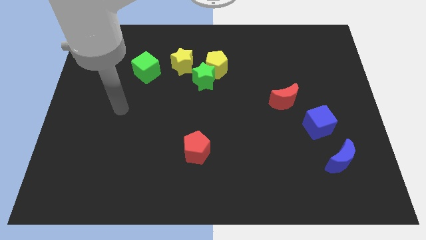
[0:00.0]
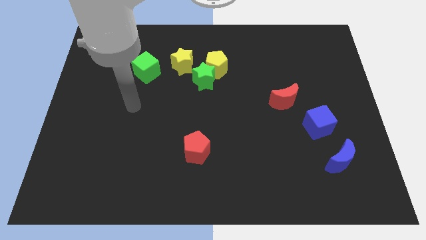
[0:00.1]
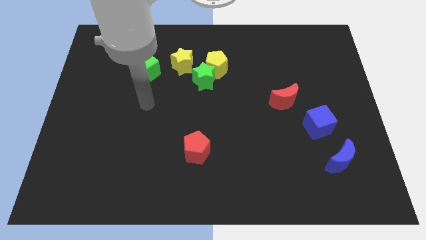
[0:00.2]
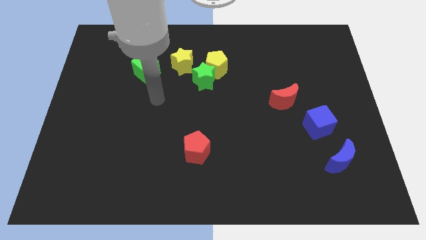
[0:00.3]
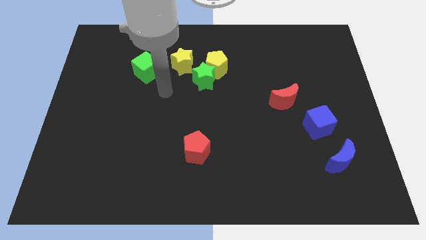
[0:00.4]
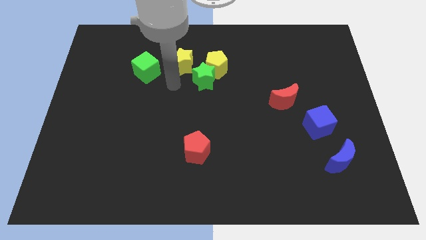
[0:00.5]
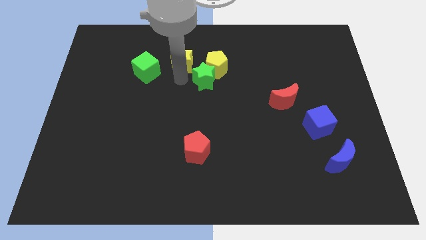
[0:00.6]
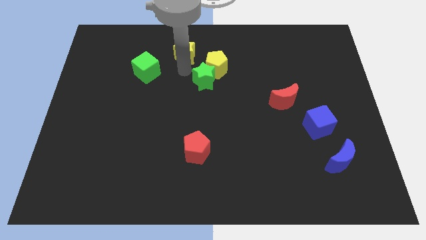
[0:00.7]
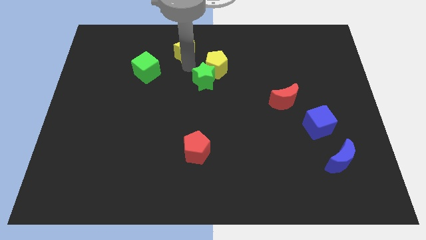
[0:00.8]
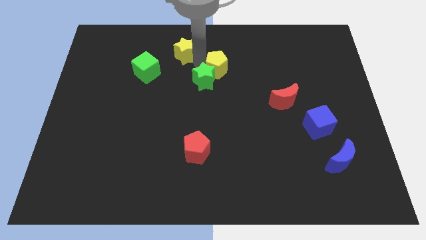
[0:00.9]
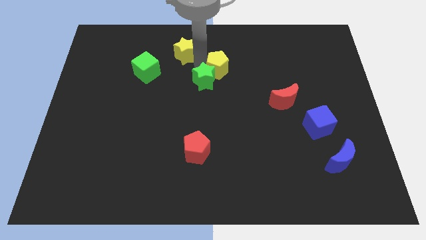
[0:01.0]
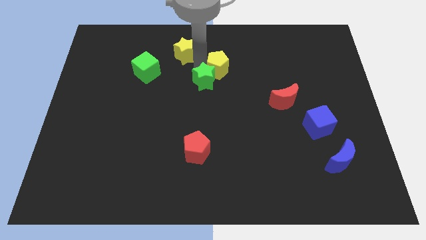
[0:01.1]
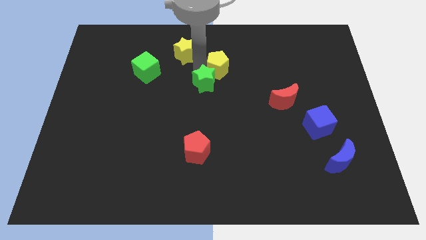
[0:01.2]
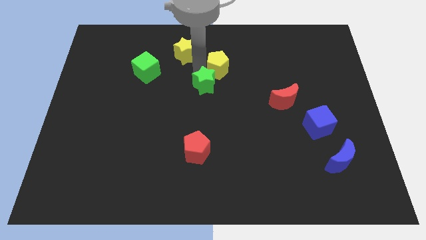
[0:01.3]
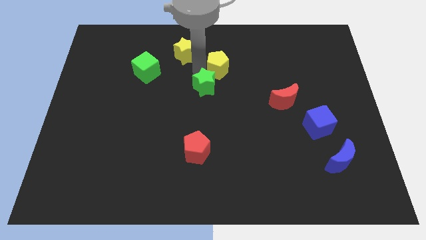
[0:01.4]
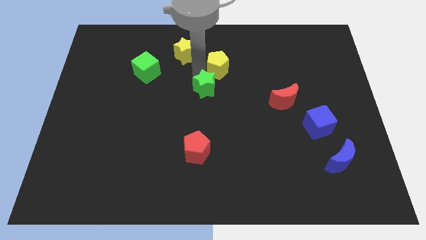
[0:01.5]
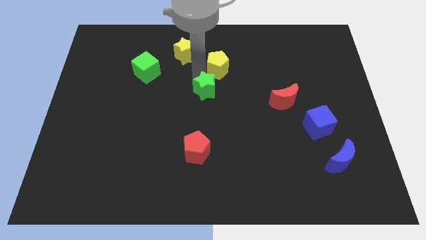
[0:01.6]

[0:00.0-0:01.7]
pull the green star apart from the yellow pentagon and yellow star

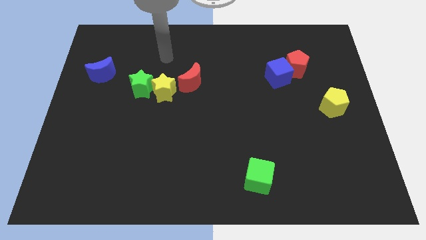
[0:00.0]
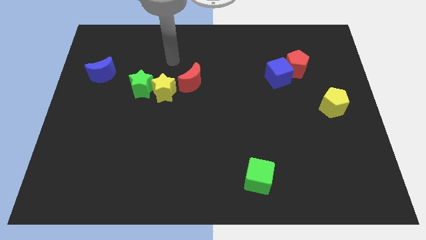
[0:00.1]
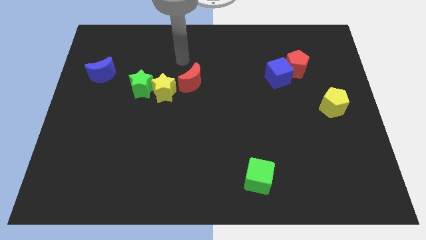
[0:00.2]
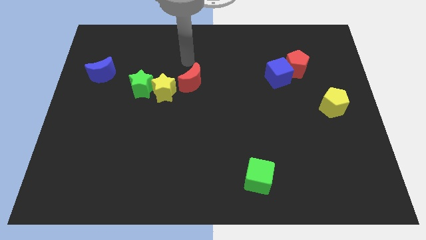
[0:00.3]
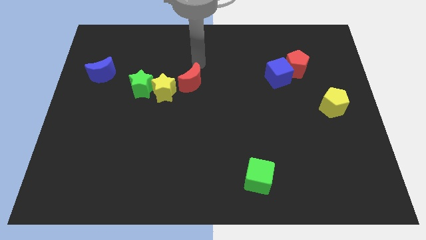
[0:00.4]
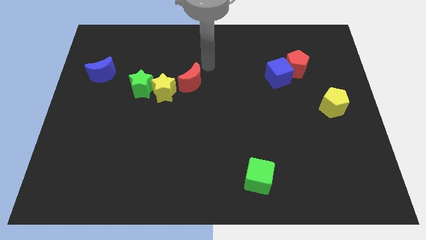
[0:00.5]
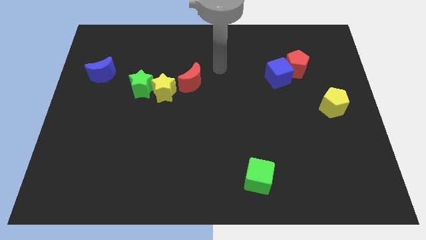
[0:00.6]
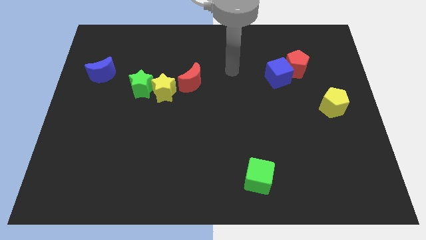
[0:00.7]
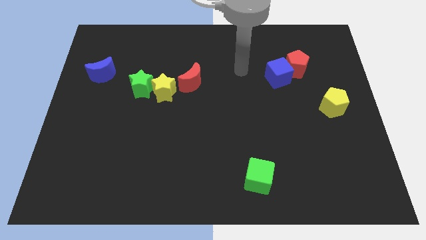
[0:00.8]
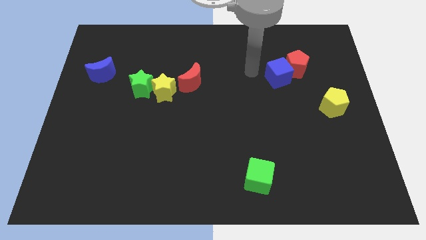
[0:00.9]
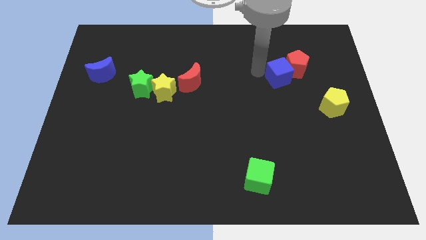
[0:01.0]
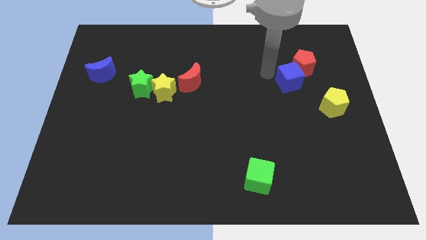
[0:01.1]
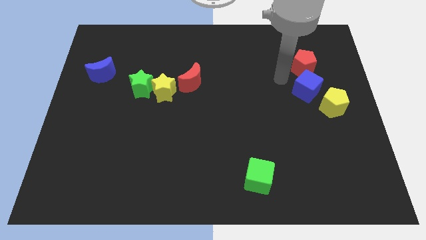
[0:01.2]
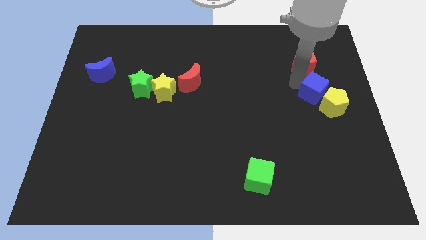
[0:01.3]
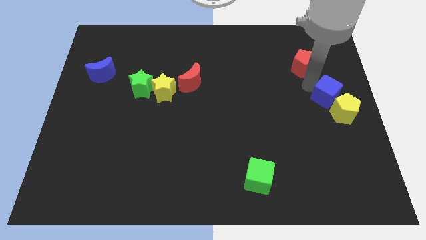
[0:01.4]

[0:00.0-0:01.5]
separate the red pentagon from the blue cube

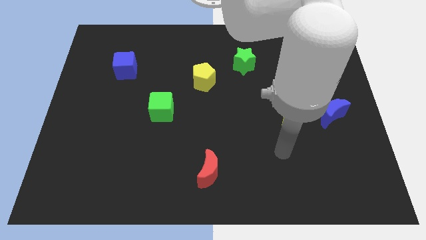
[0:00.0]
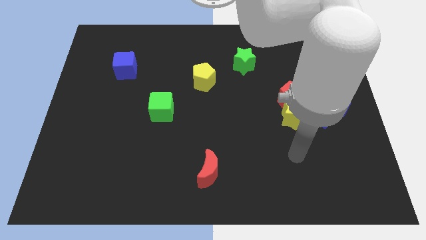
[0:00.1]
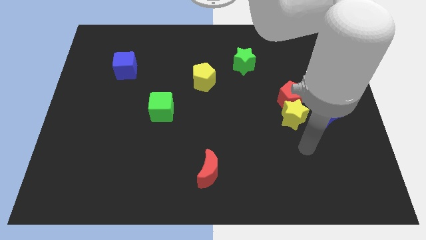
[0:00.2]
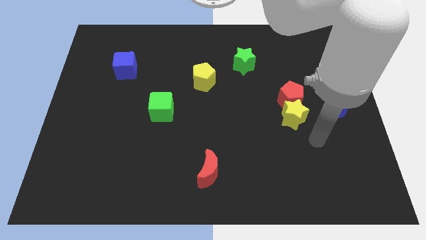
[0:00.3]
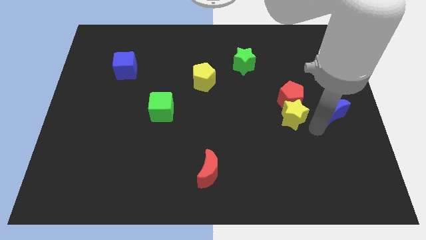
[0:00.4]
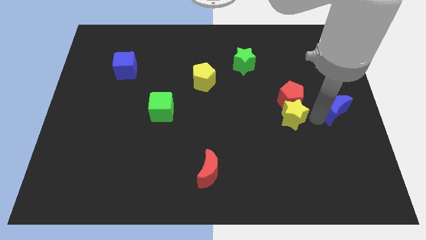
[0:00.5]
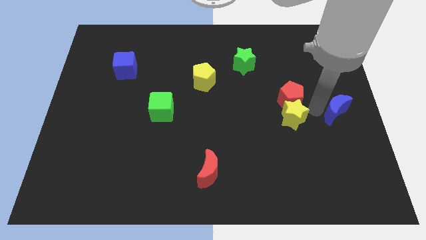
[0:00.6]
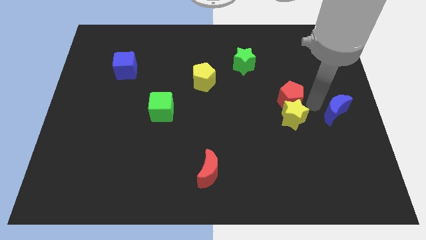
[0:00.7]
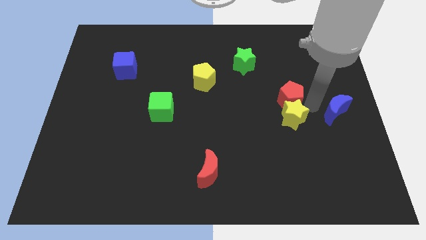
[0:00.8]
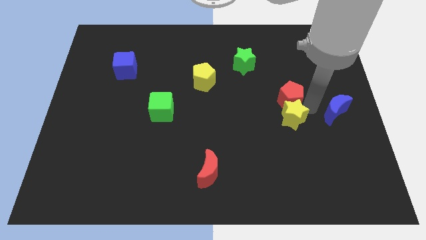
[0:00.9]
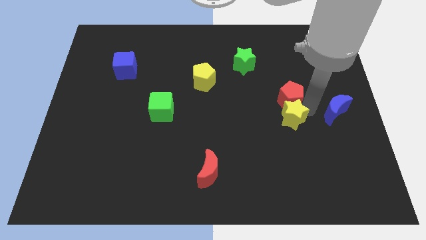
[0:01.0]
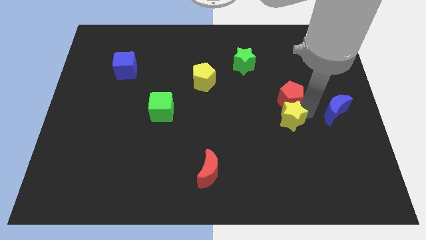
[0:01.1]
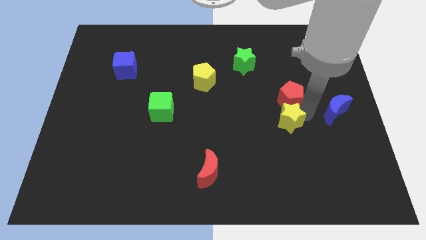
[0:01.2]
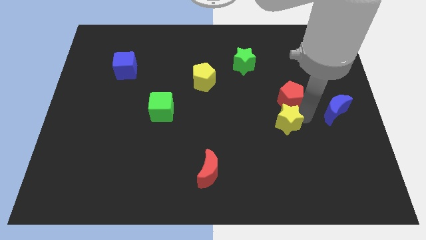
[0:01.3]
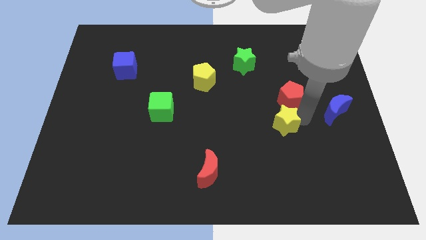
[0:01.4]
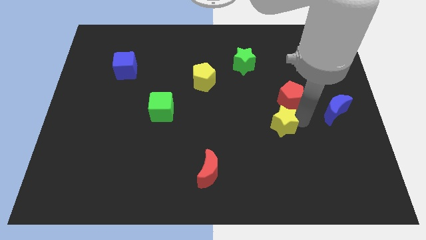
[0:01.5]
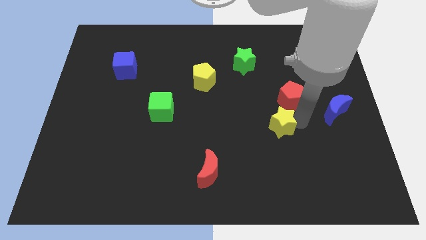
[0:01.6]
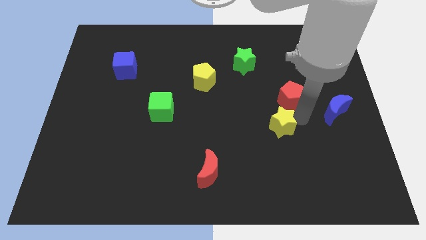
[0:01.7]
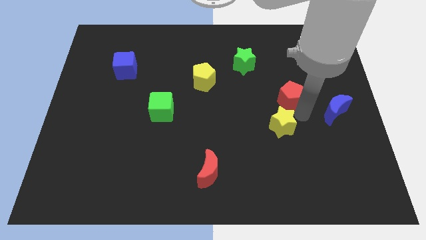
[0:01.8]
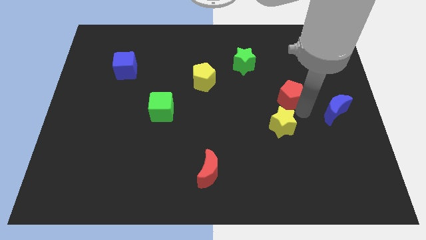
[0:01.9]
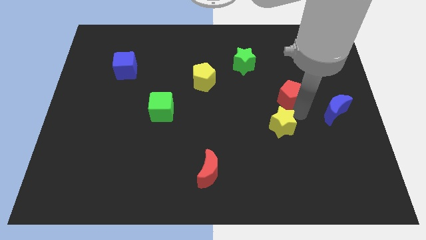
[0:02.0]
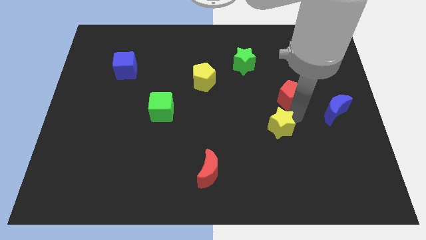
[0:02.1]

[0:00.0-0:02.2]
separate the yellow star from the red pentagon and blue moon

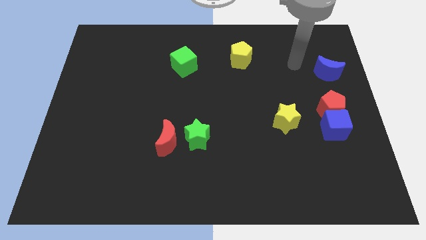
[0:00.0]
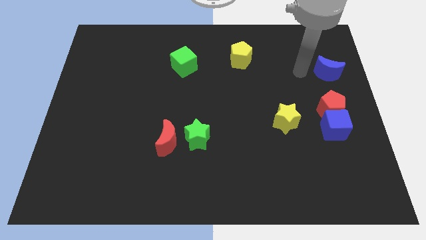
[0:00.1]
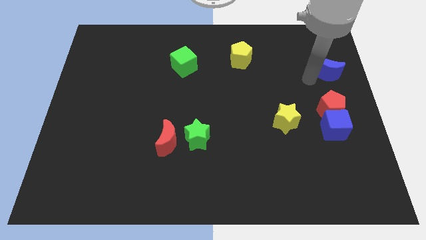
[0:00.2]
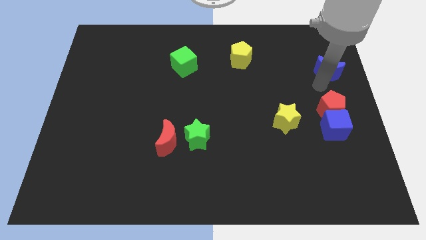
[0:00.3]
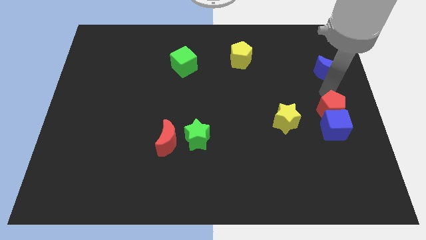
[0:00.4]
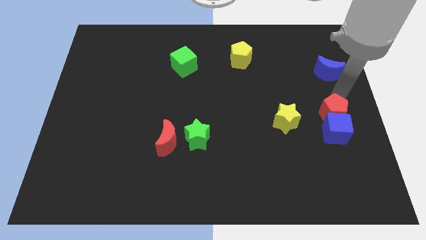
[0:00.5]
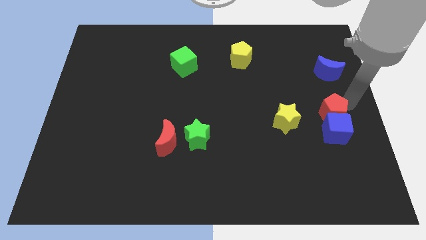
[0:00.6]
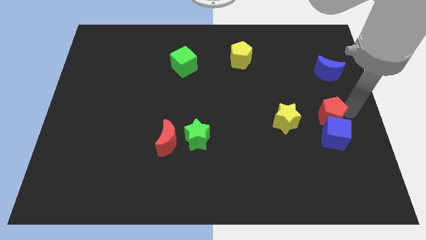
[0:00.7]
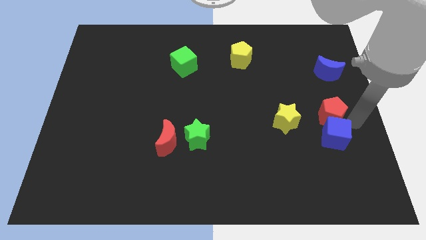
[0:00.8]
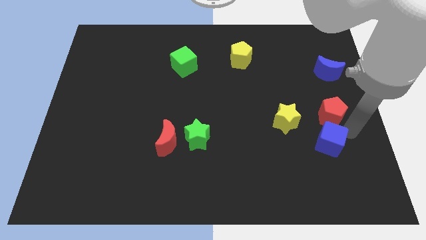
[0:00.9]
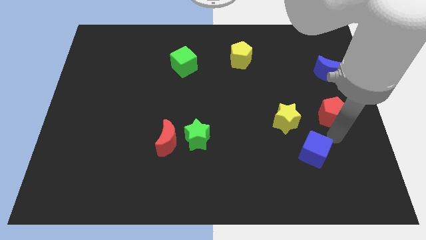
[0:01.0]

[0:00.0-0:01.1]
move the red pentagon away from the blue cube

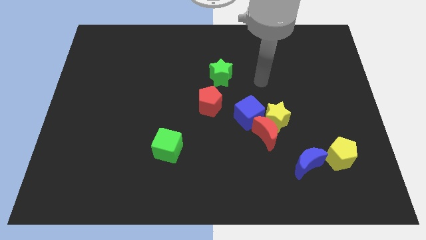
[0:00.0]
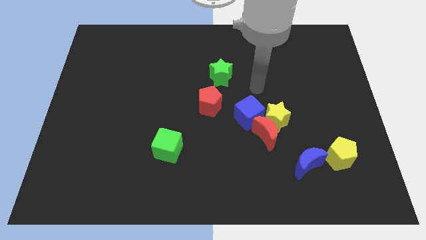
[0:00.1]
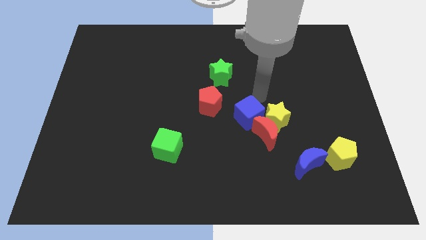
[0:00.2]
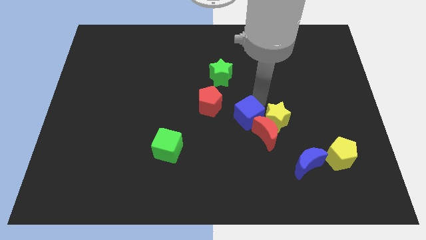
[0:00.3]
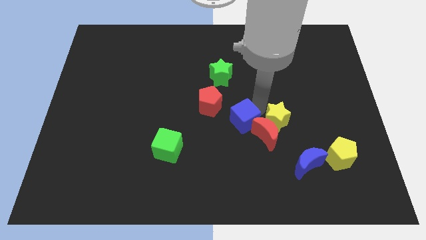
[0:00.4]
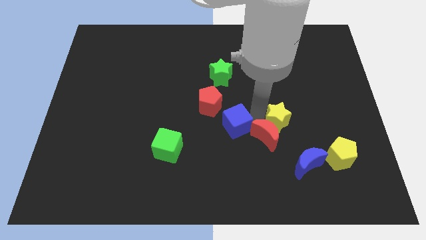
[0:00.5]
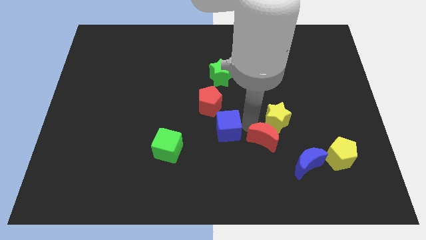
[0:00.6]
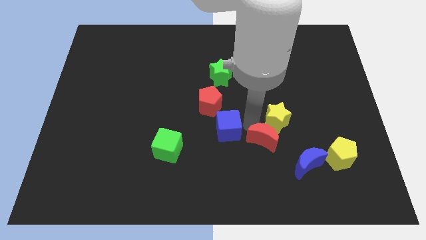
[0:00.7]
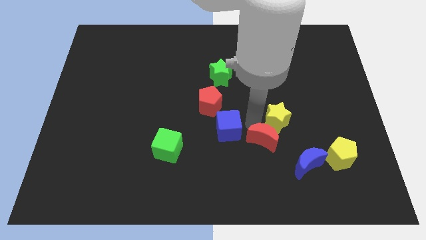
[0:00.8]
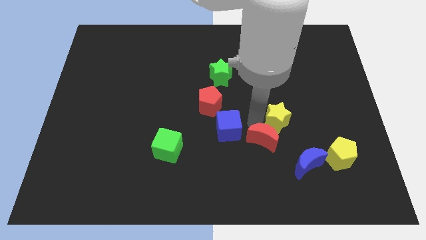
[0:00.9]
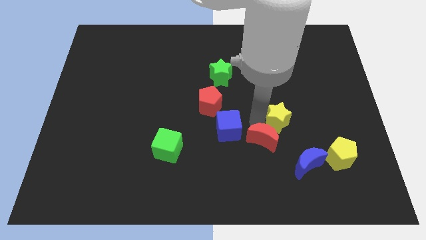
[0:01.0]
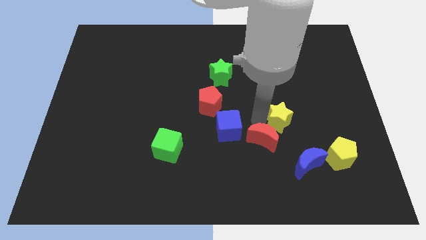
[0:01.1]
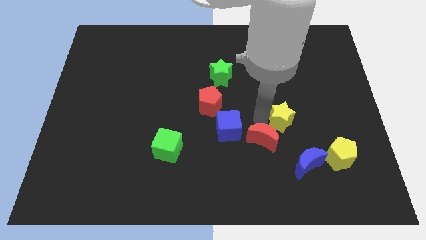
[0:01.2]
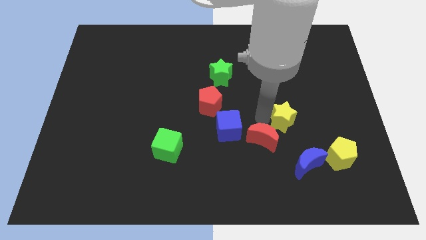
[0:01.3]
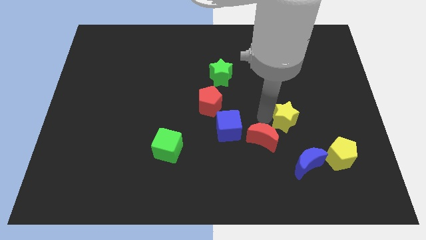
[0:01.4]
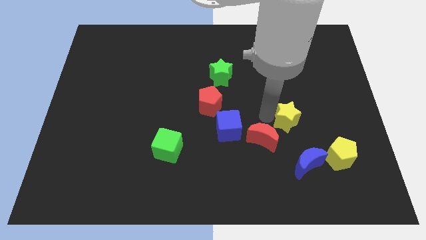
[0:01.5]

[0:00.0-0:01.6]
separate the yellow star from the red moon and blue cube

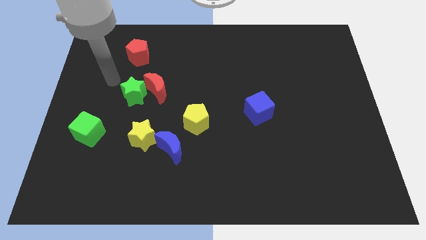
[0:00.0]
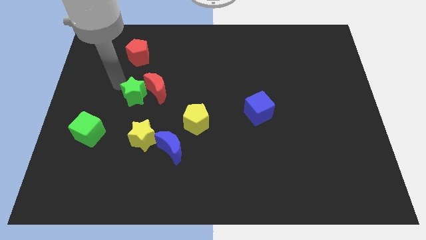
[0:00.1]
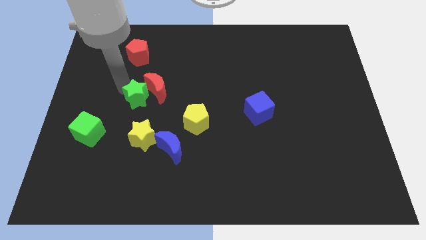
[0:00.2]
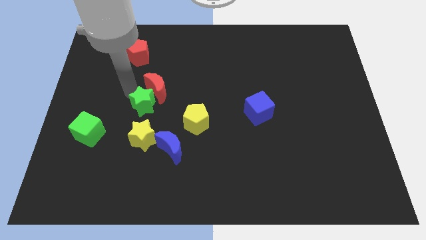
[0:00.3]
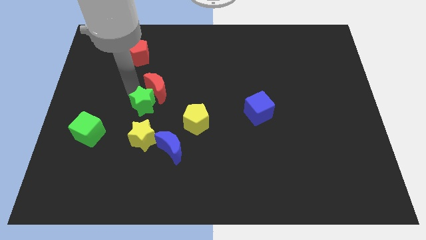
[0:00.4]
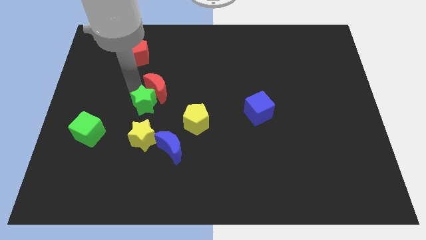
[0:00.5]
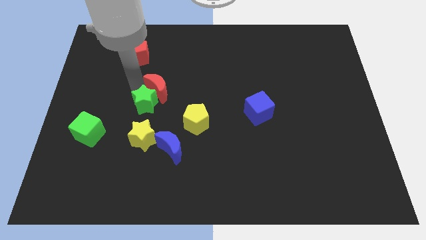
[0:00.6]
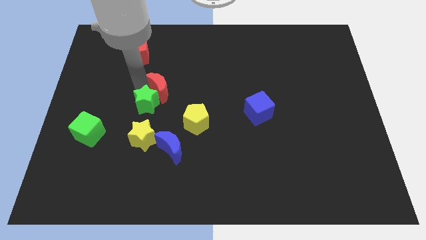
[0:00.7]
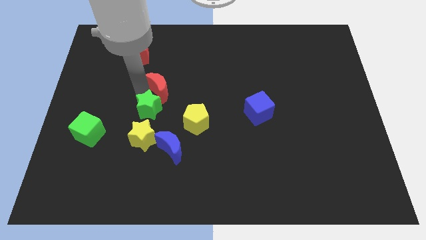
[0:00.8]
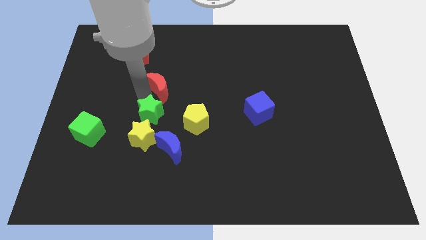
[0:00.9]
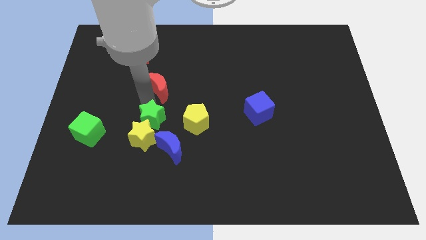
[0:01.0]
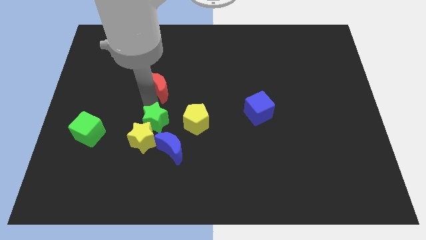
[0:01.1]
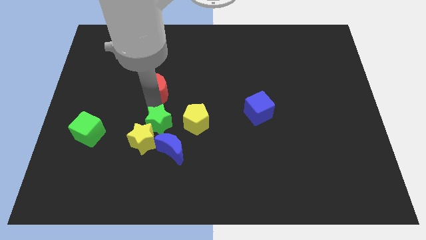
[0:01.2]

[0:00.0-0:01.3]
pull the red moon apart from the green star
